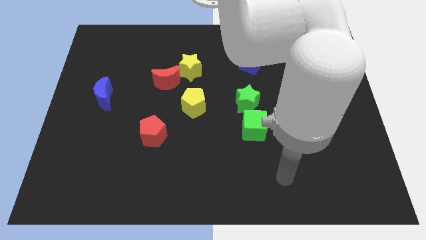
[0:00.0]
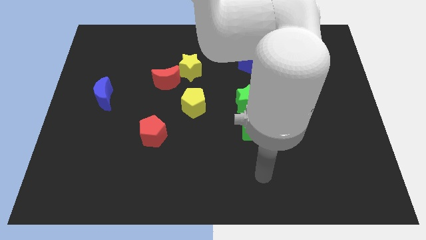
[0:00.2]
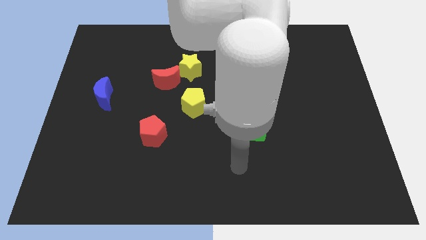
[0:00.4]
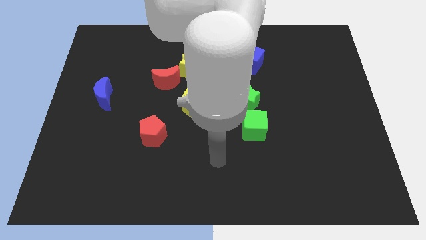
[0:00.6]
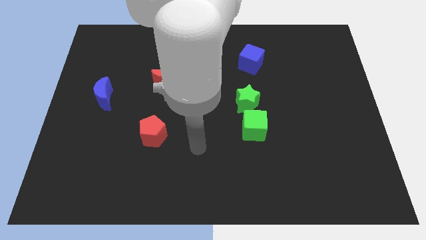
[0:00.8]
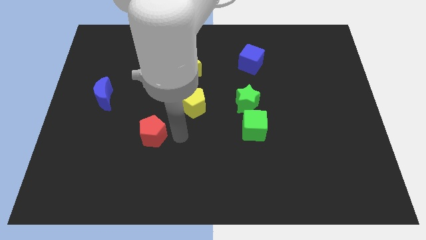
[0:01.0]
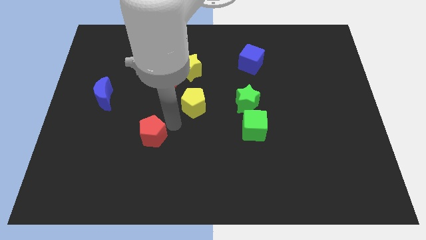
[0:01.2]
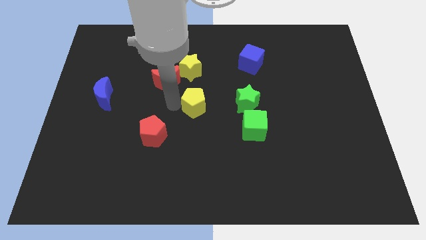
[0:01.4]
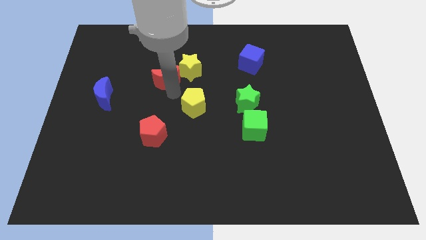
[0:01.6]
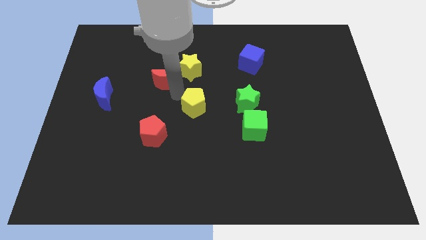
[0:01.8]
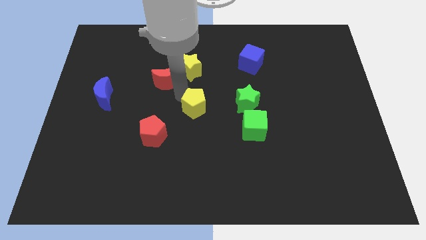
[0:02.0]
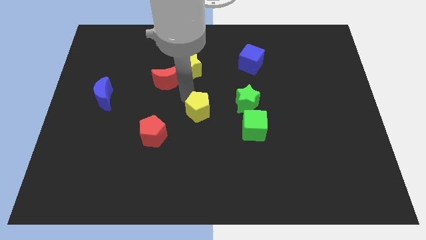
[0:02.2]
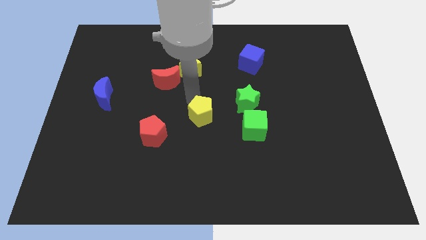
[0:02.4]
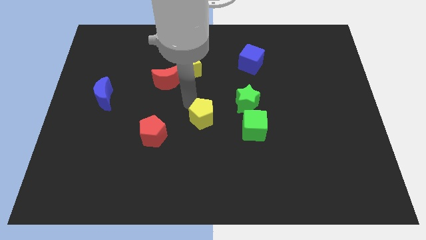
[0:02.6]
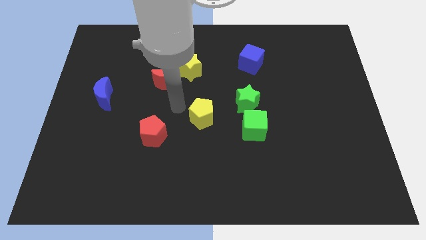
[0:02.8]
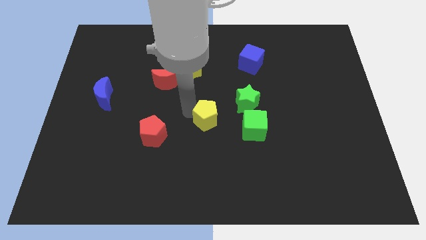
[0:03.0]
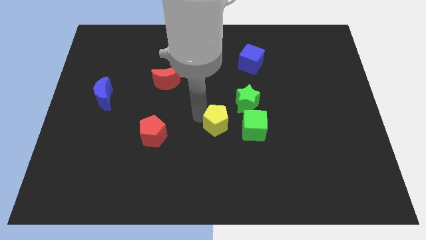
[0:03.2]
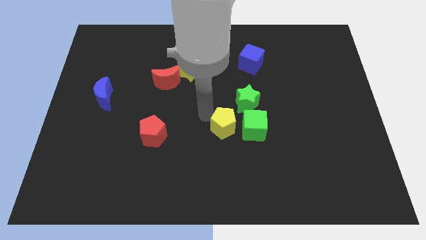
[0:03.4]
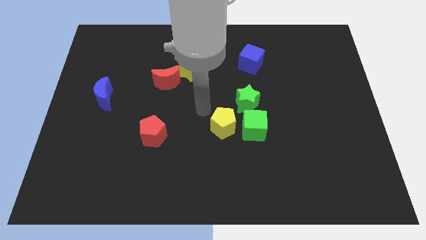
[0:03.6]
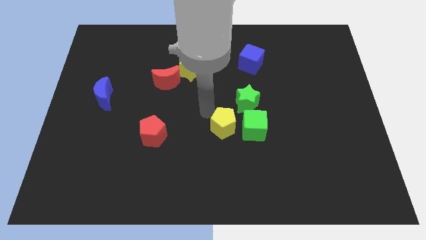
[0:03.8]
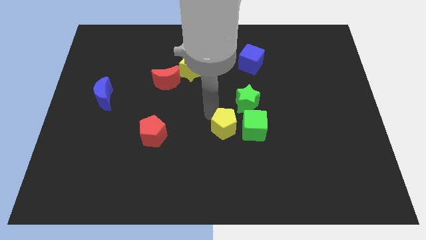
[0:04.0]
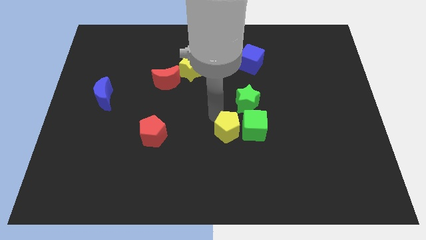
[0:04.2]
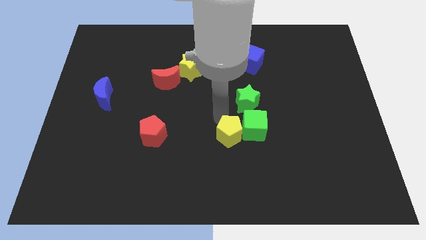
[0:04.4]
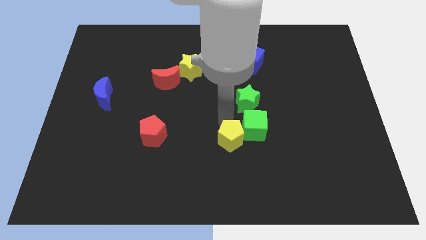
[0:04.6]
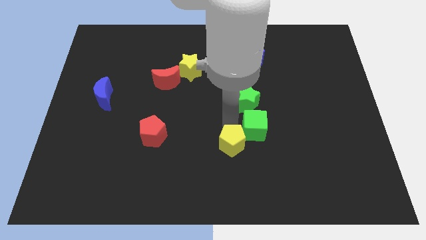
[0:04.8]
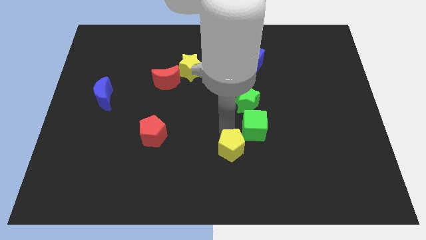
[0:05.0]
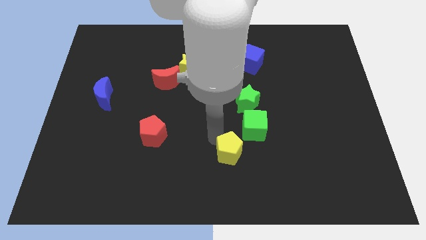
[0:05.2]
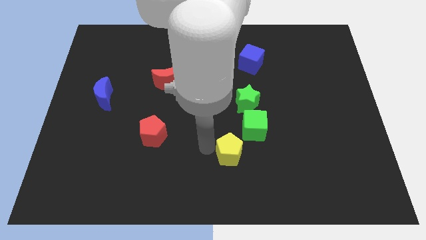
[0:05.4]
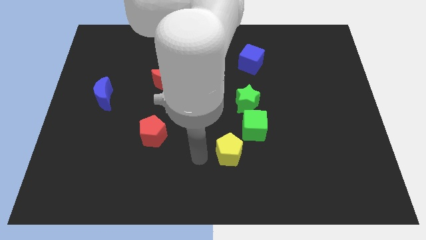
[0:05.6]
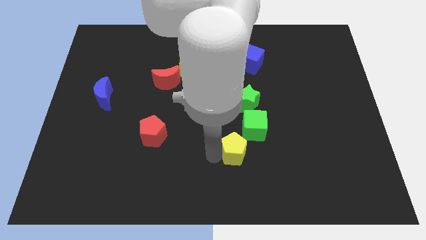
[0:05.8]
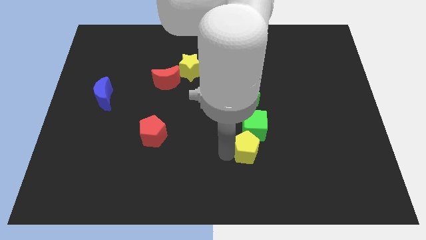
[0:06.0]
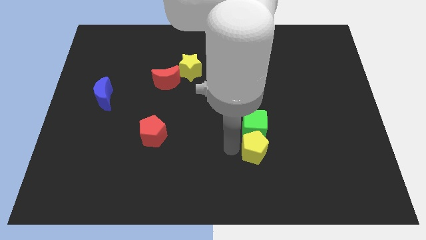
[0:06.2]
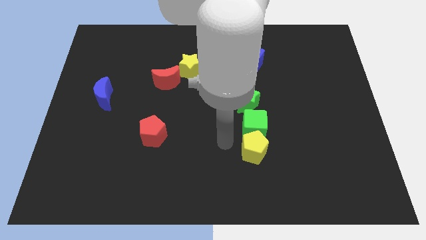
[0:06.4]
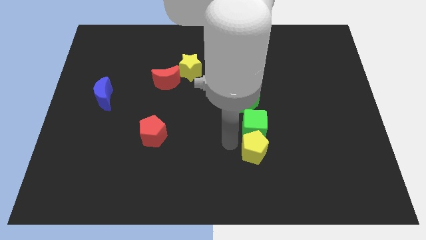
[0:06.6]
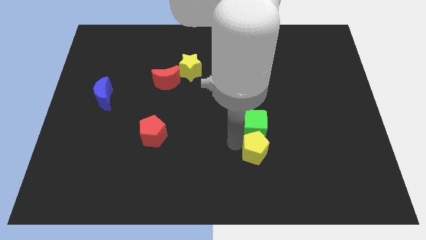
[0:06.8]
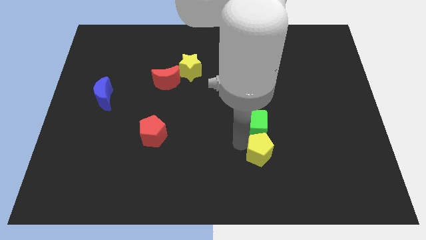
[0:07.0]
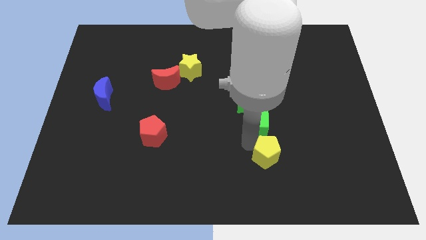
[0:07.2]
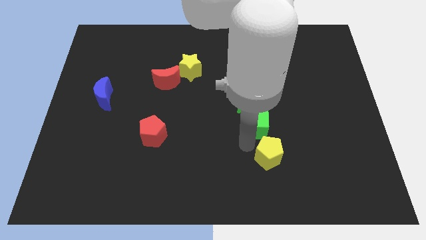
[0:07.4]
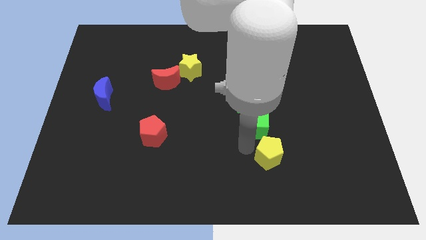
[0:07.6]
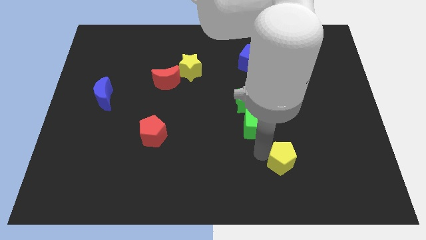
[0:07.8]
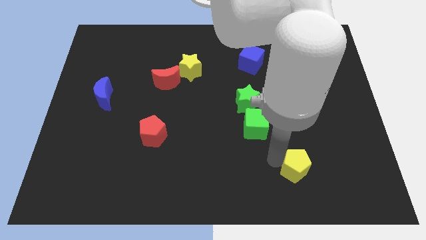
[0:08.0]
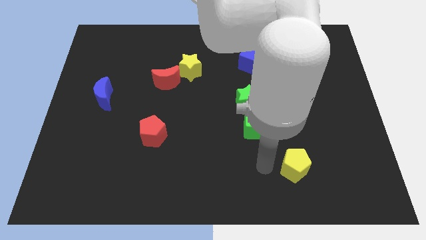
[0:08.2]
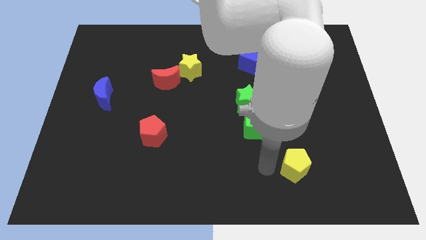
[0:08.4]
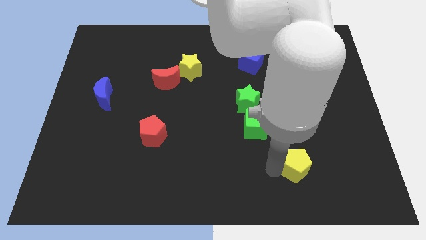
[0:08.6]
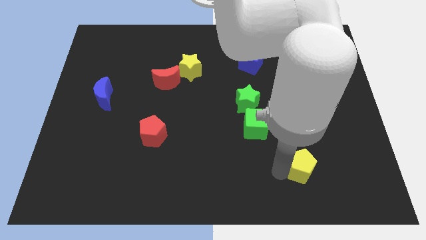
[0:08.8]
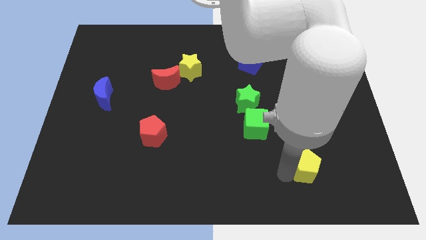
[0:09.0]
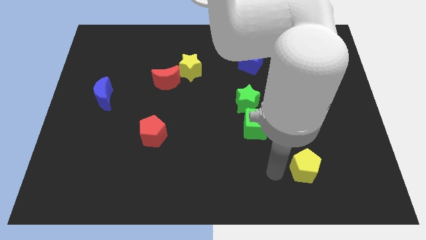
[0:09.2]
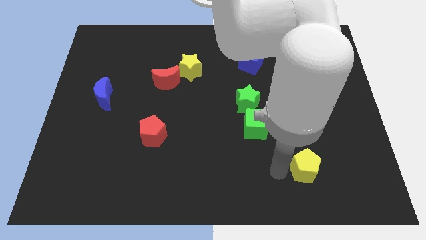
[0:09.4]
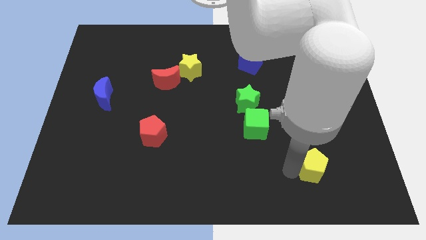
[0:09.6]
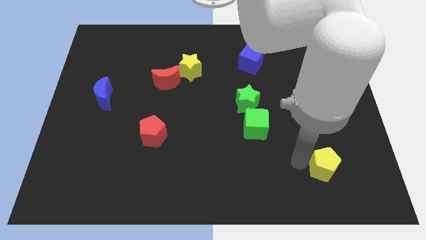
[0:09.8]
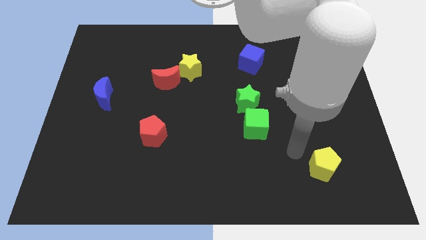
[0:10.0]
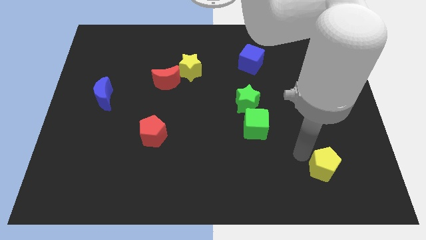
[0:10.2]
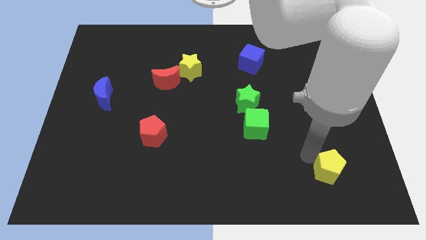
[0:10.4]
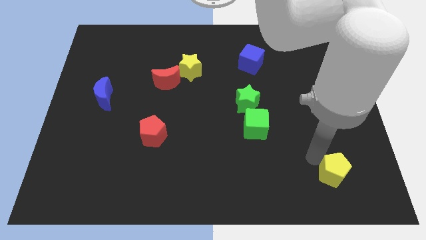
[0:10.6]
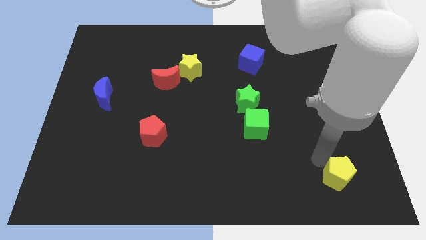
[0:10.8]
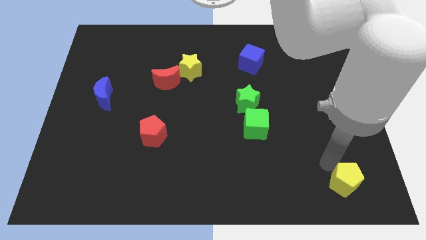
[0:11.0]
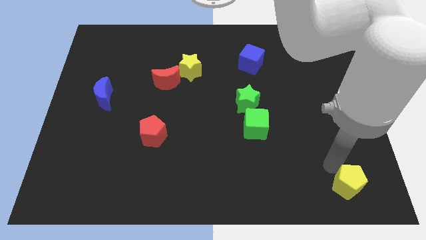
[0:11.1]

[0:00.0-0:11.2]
put the yellow pentagon to the bottom right

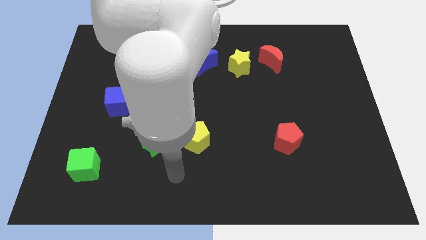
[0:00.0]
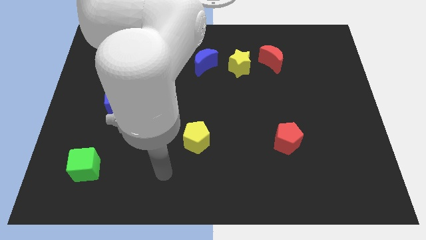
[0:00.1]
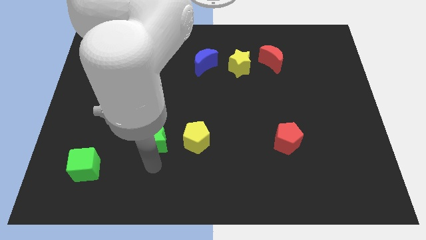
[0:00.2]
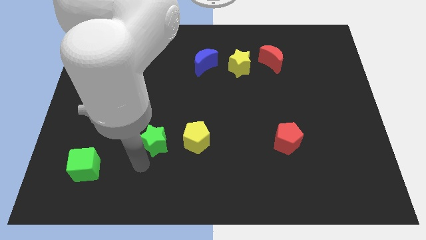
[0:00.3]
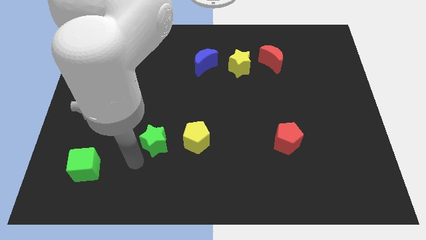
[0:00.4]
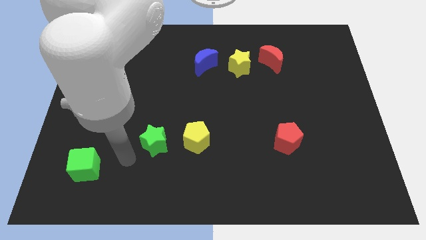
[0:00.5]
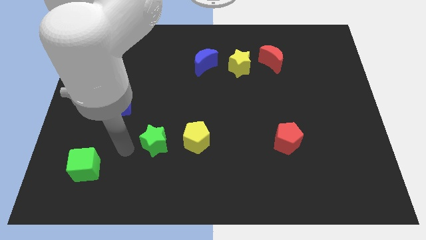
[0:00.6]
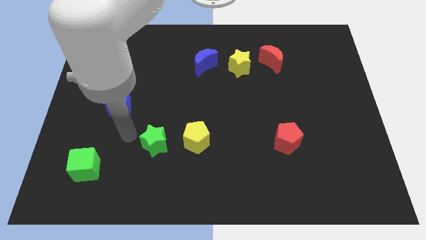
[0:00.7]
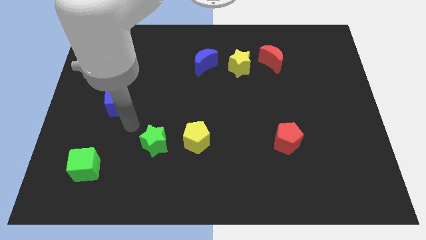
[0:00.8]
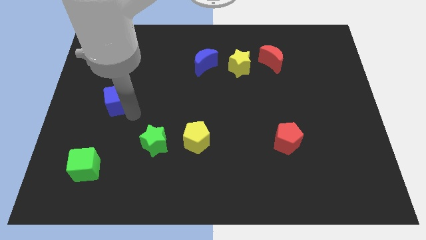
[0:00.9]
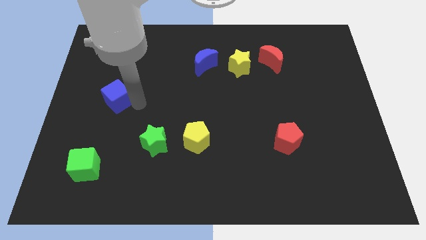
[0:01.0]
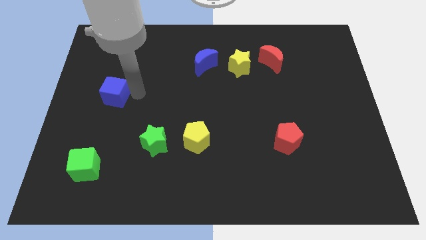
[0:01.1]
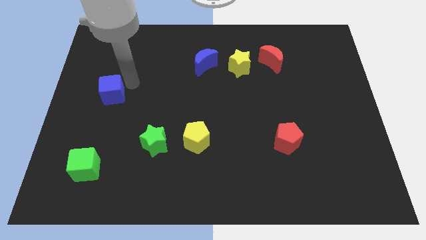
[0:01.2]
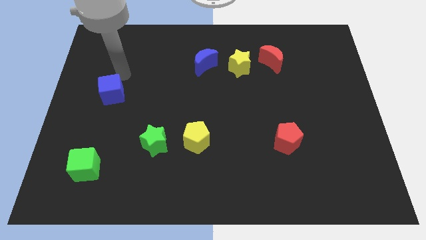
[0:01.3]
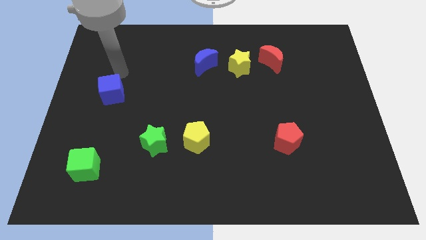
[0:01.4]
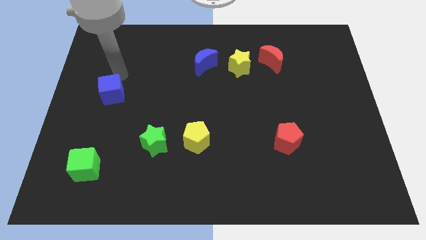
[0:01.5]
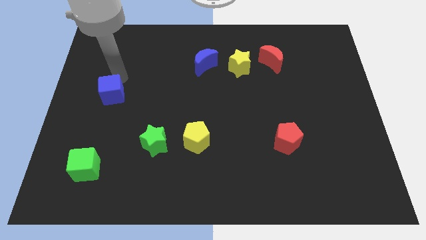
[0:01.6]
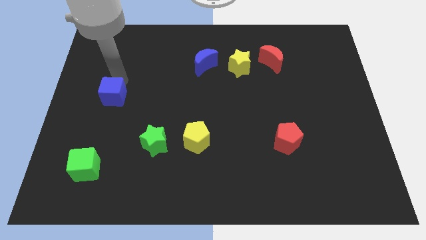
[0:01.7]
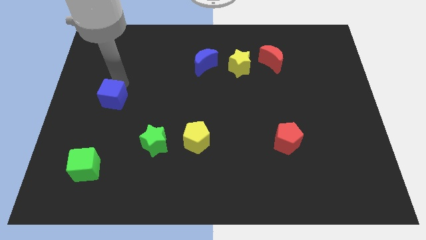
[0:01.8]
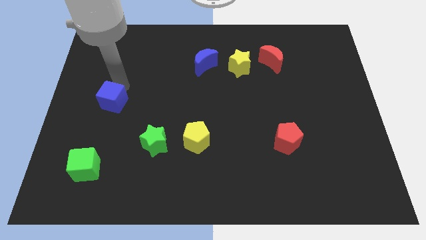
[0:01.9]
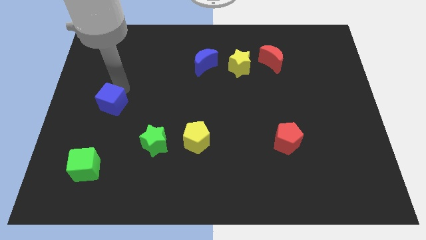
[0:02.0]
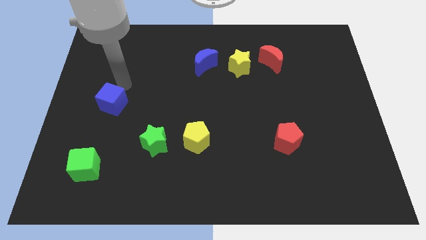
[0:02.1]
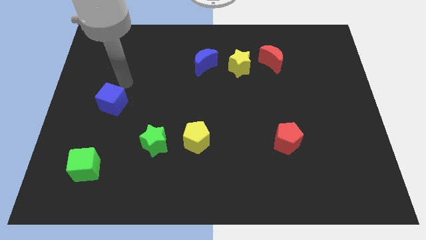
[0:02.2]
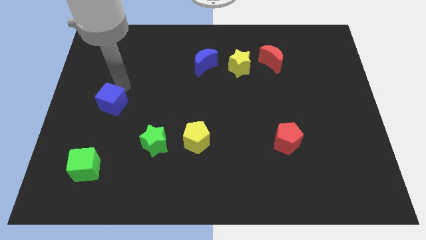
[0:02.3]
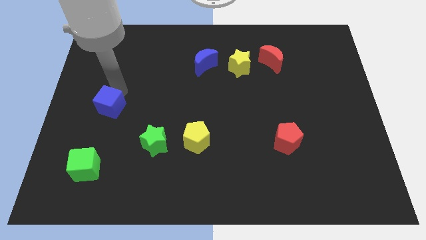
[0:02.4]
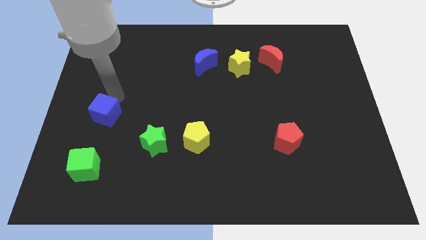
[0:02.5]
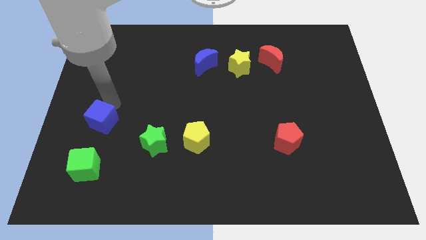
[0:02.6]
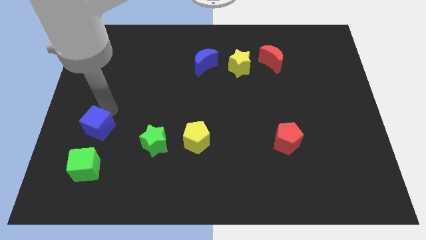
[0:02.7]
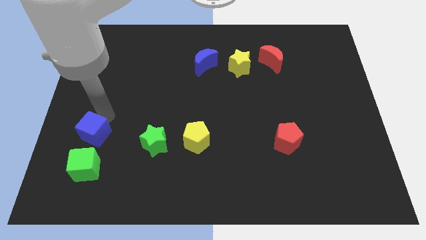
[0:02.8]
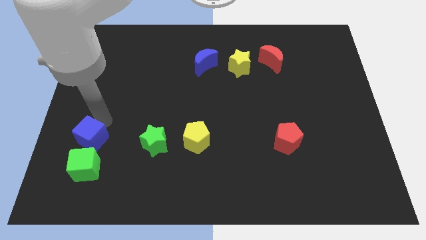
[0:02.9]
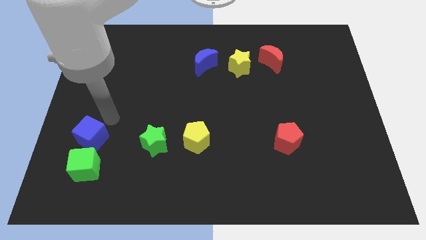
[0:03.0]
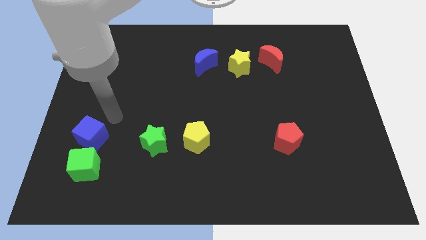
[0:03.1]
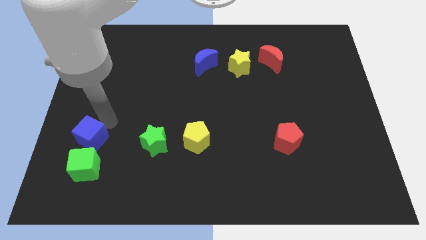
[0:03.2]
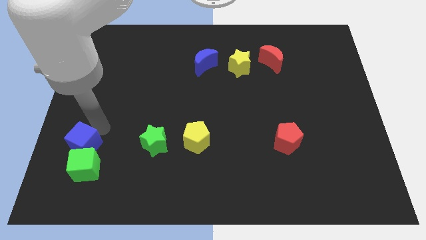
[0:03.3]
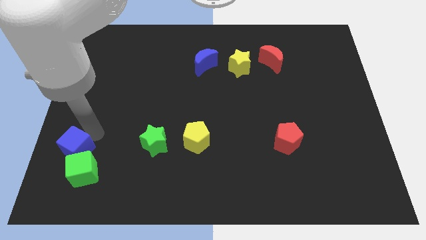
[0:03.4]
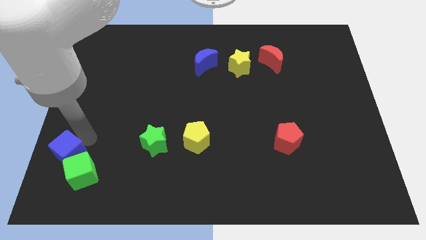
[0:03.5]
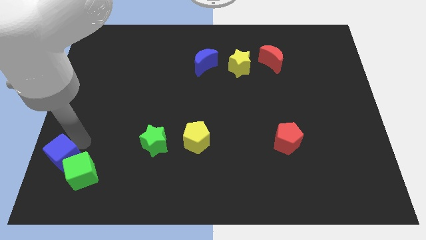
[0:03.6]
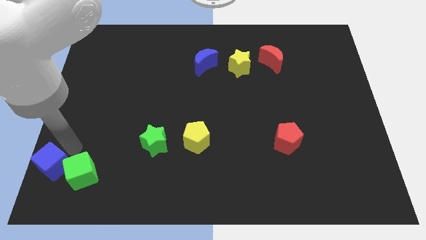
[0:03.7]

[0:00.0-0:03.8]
push the blue cube to the bottom left of the board
